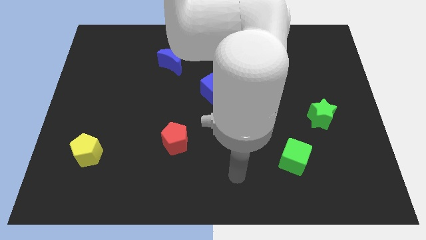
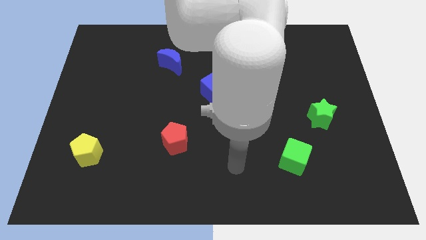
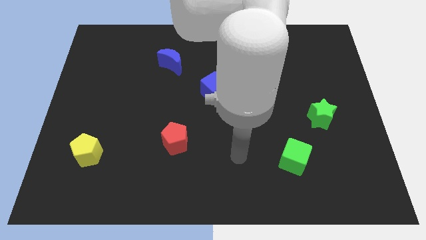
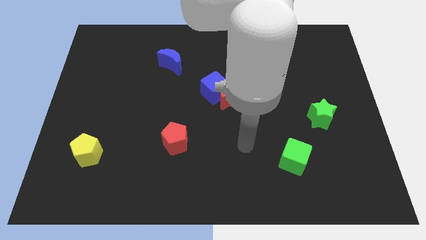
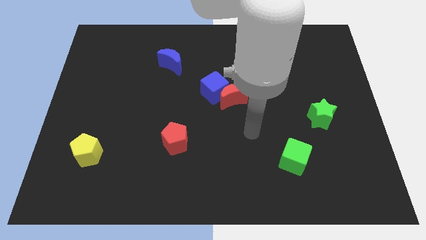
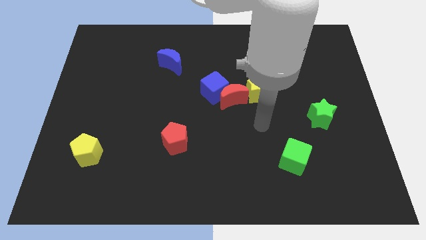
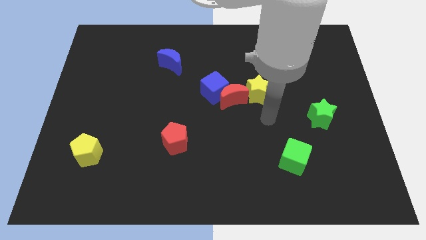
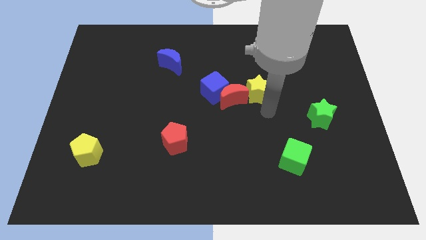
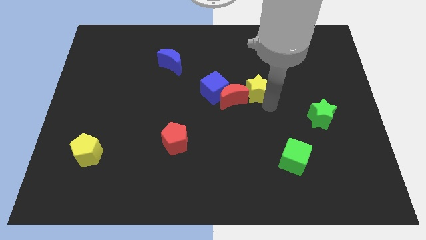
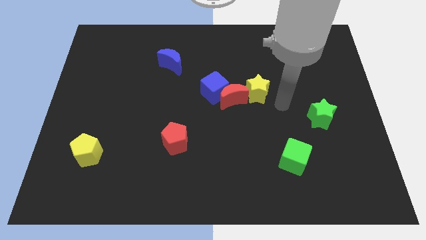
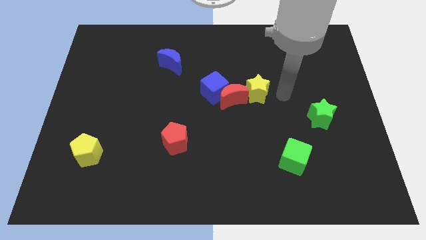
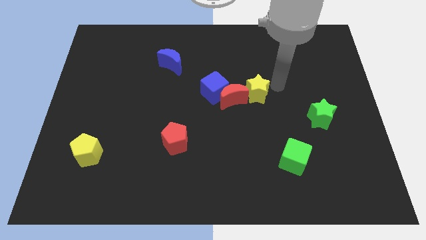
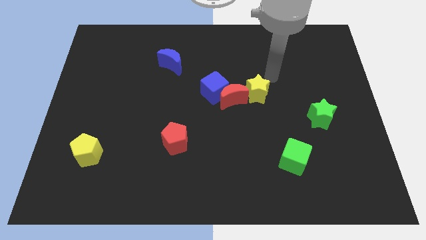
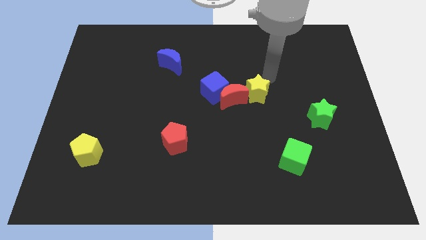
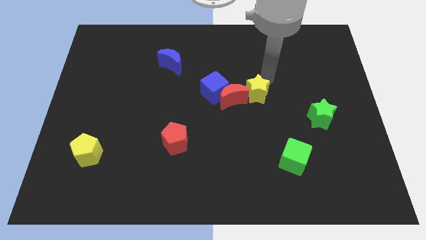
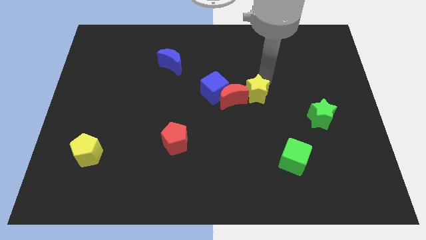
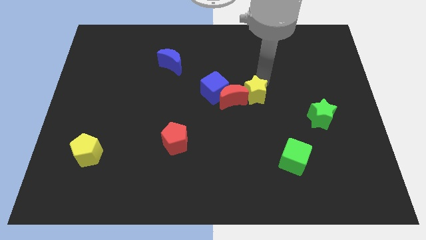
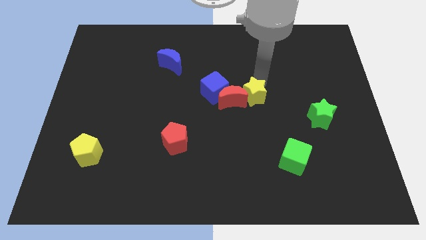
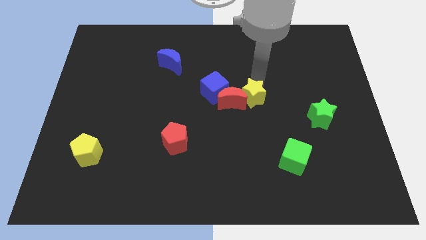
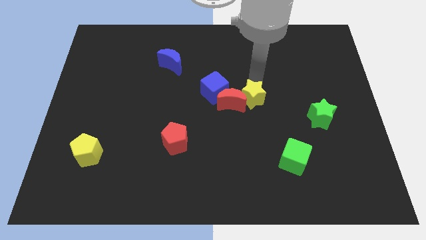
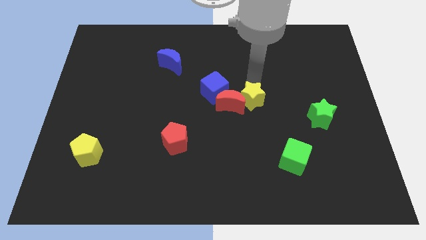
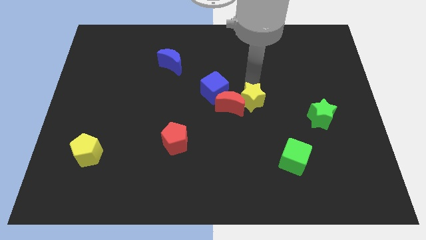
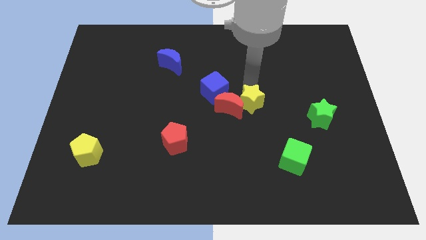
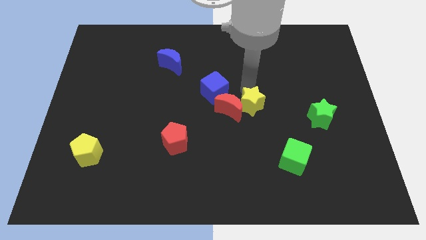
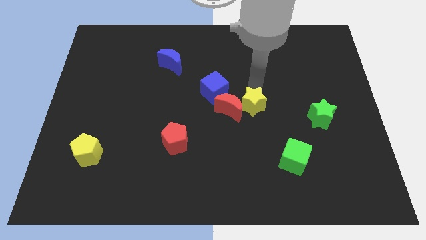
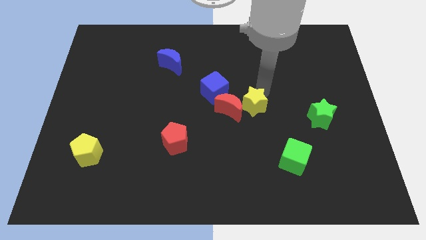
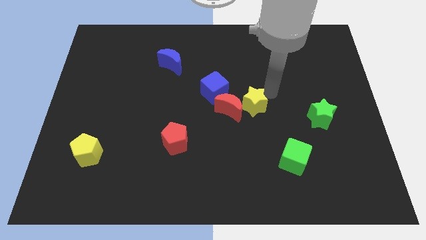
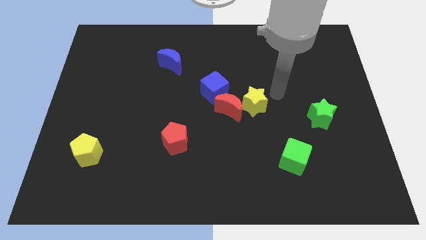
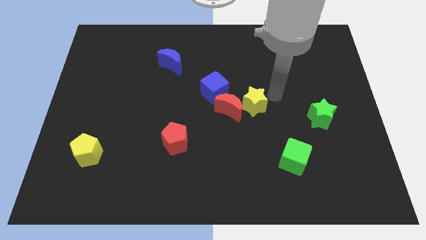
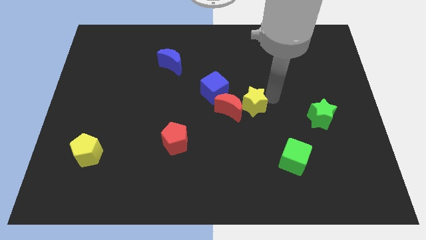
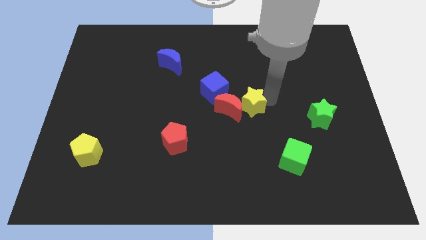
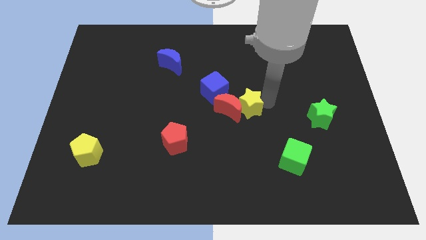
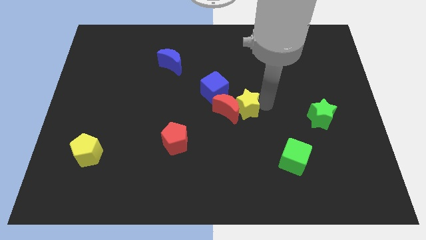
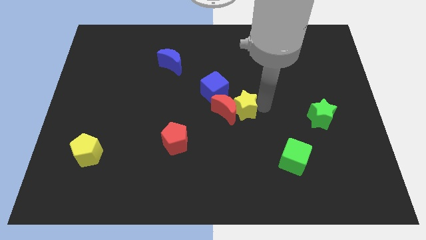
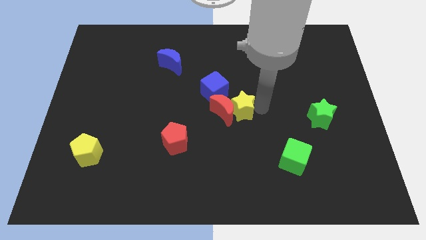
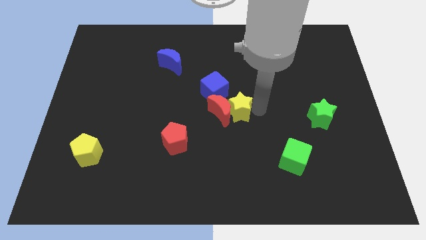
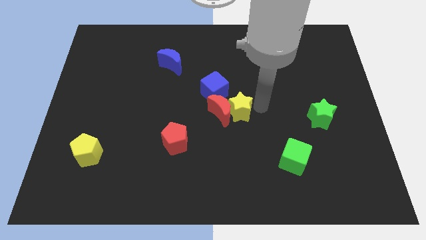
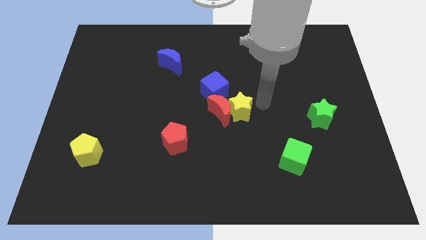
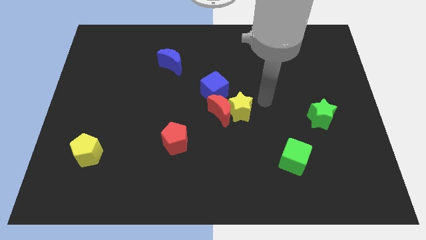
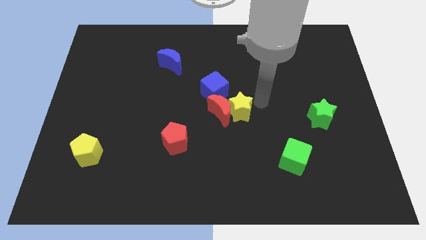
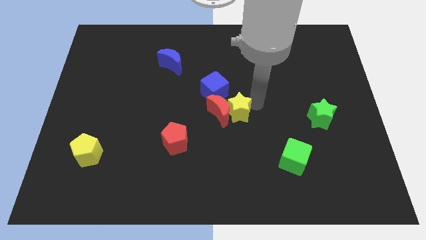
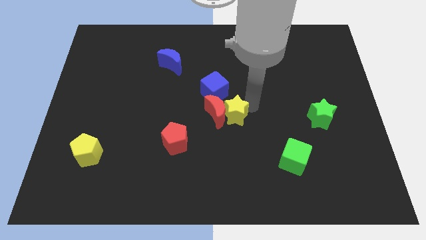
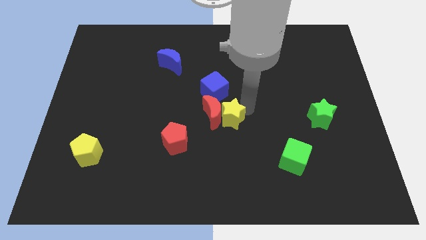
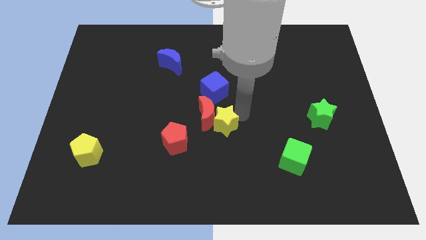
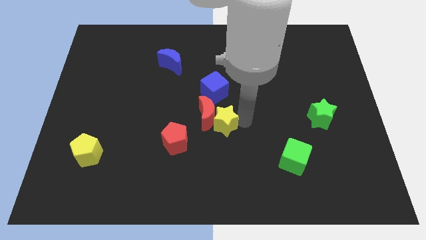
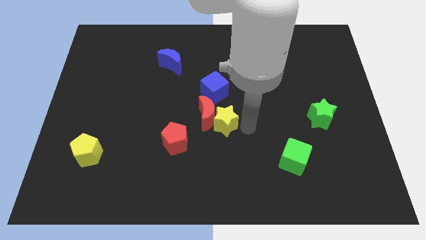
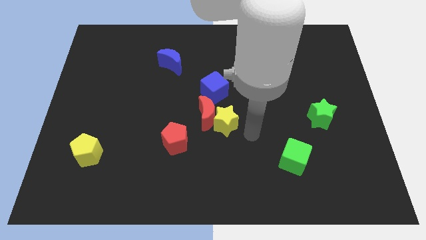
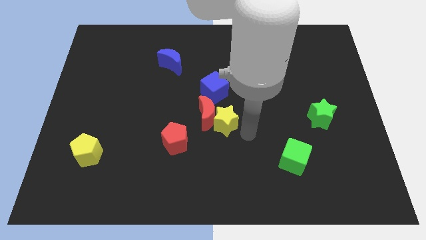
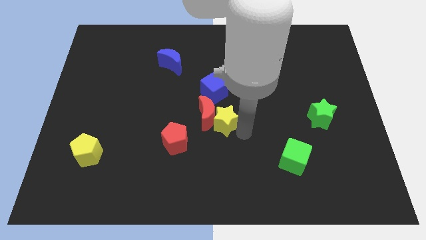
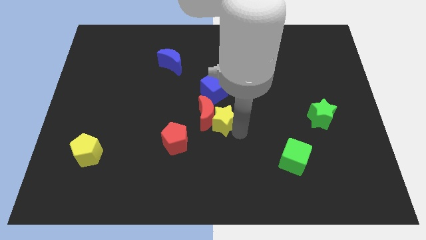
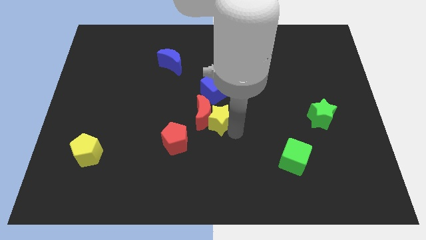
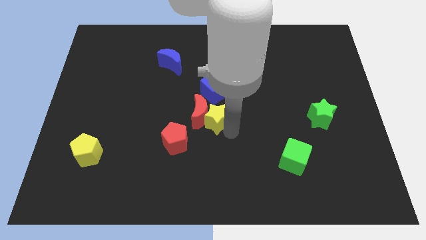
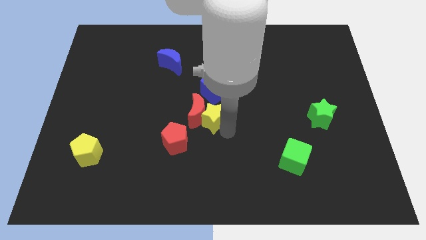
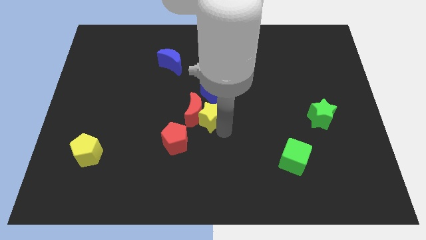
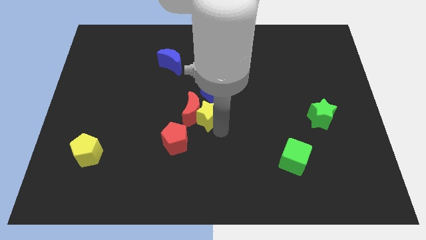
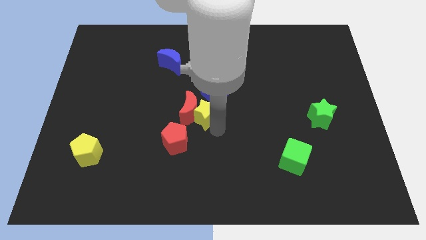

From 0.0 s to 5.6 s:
put the yellow star to the bottom left of the blue cube
